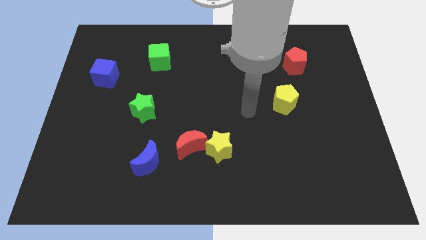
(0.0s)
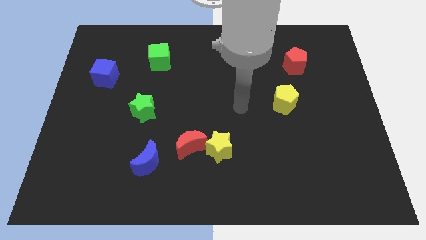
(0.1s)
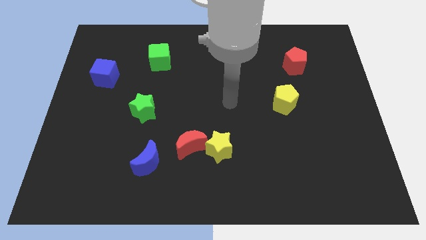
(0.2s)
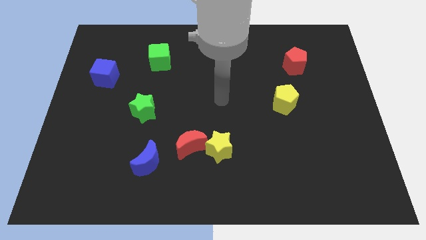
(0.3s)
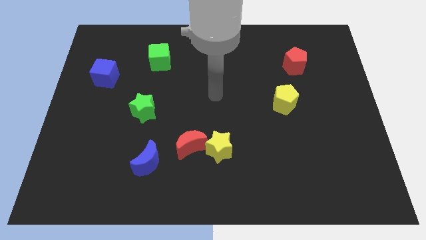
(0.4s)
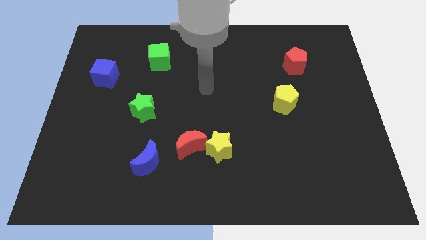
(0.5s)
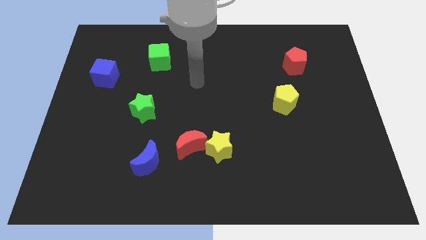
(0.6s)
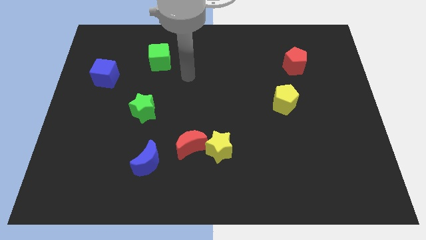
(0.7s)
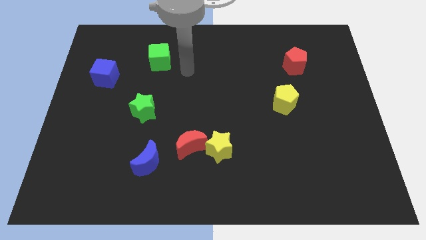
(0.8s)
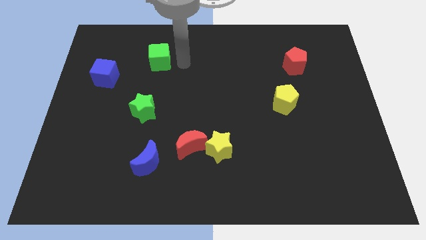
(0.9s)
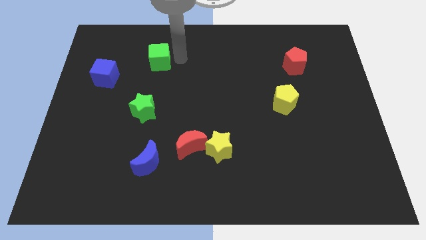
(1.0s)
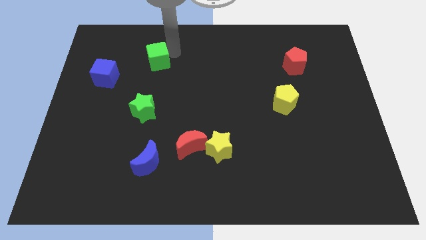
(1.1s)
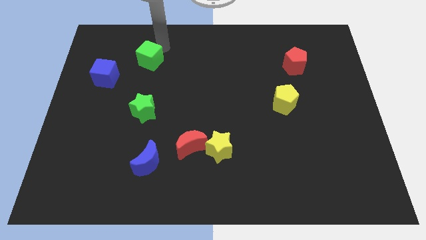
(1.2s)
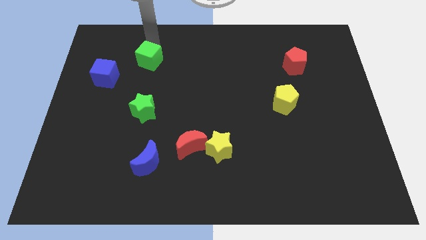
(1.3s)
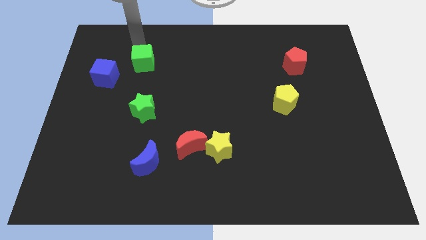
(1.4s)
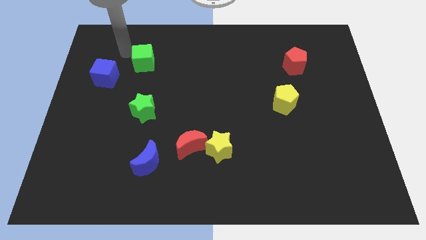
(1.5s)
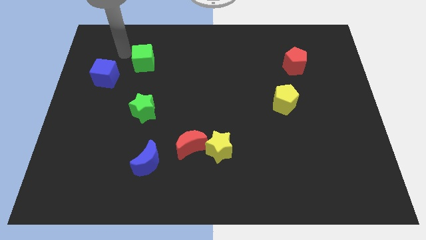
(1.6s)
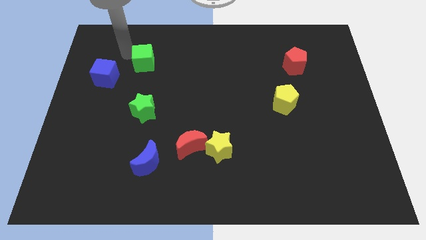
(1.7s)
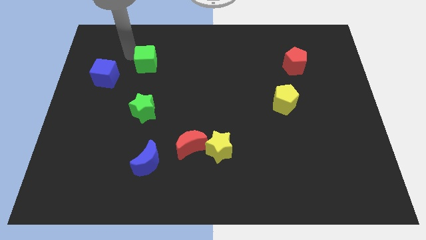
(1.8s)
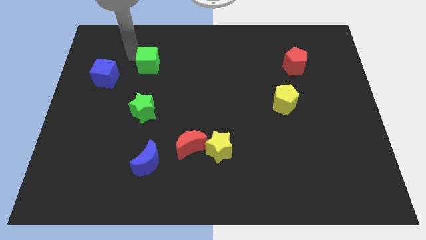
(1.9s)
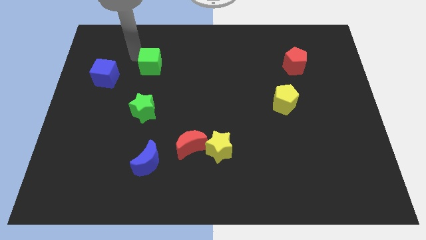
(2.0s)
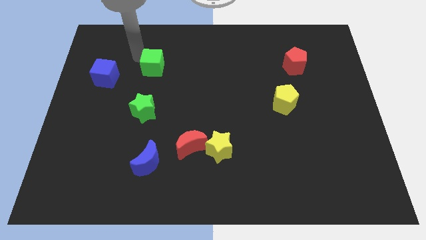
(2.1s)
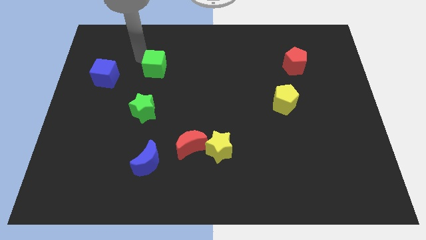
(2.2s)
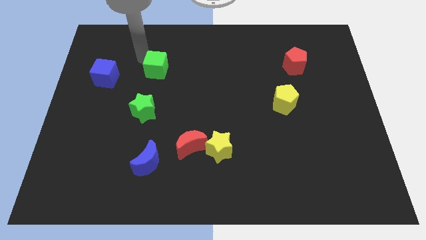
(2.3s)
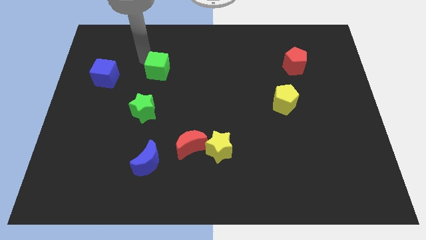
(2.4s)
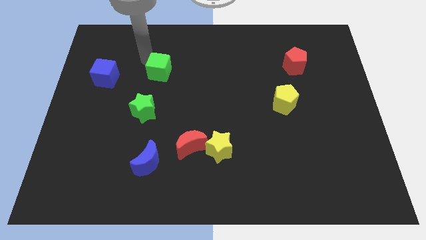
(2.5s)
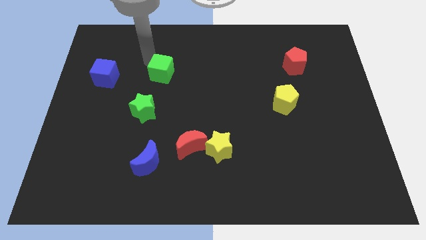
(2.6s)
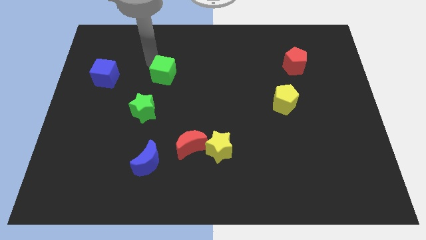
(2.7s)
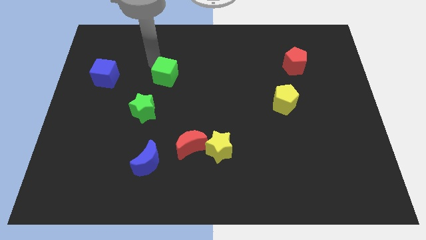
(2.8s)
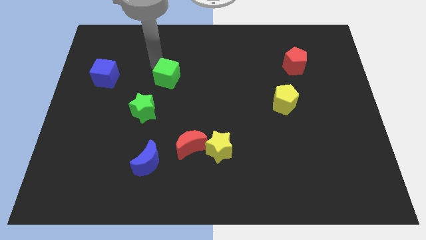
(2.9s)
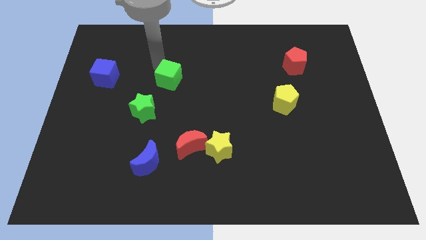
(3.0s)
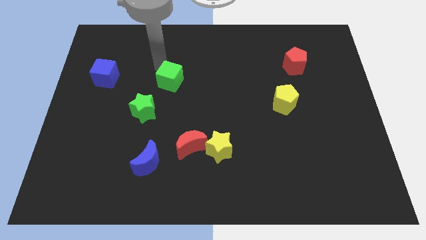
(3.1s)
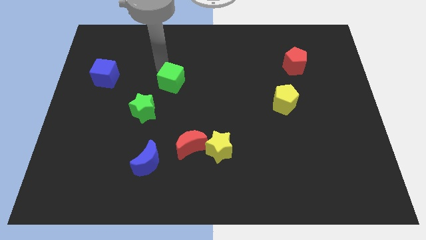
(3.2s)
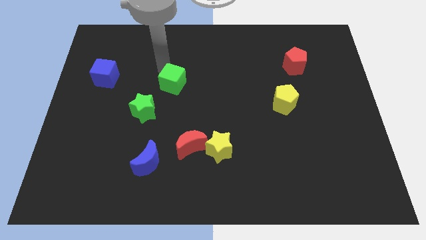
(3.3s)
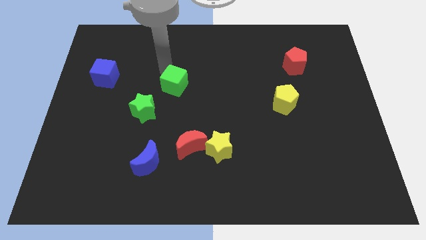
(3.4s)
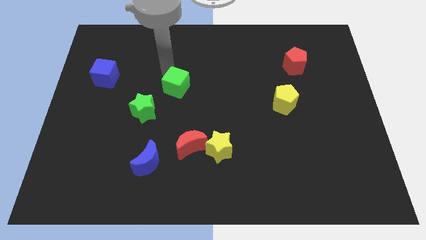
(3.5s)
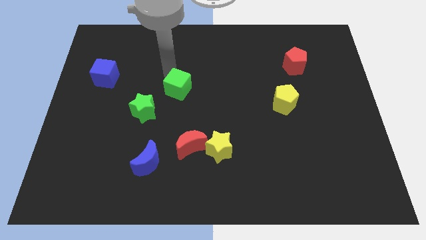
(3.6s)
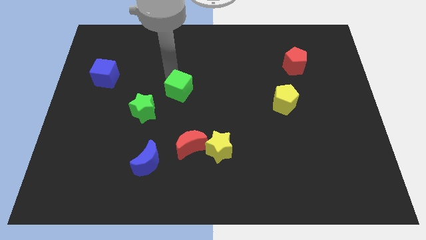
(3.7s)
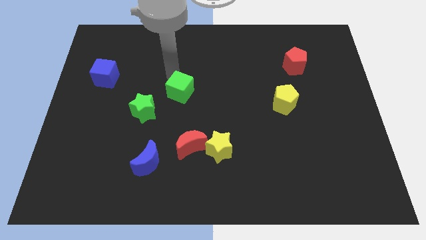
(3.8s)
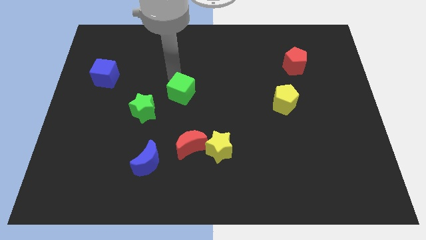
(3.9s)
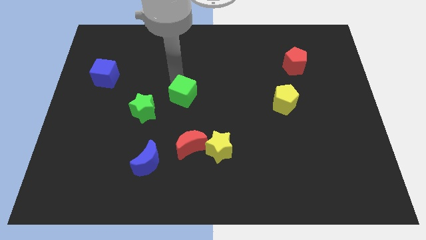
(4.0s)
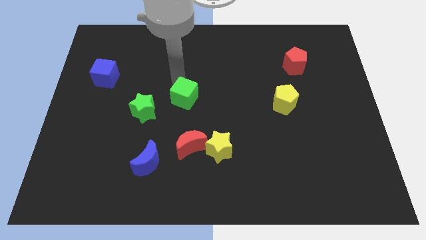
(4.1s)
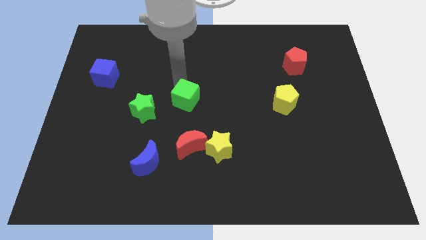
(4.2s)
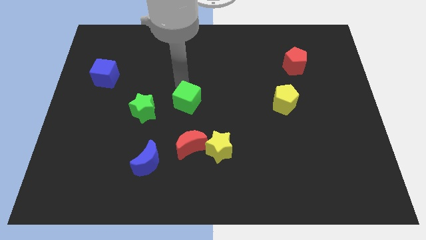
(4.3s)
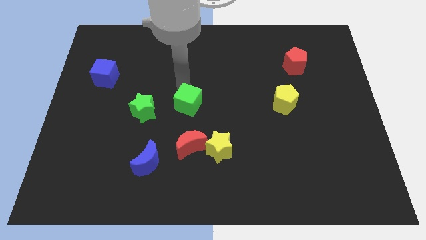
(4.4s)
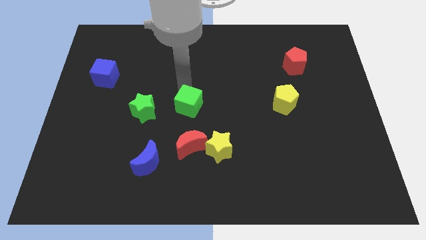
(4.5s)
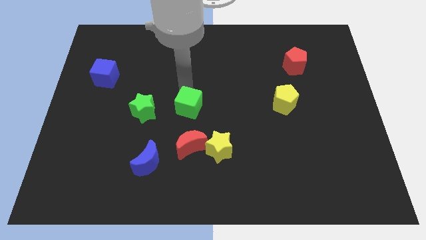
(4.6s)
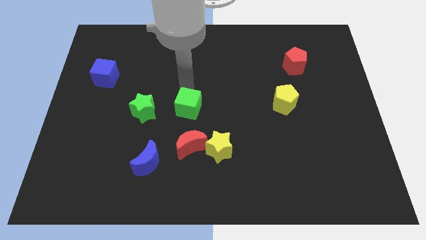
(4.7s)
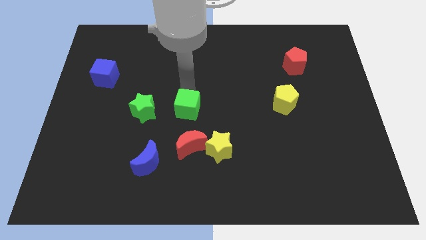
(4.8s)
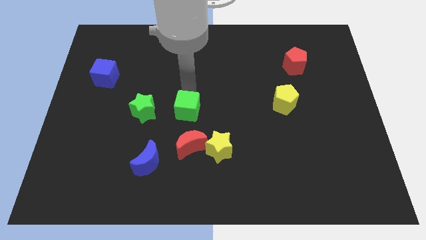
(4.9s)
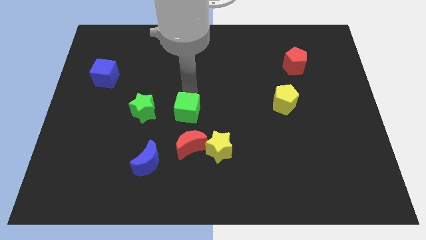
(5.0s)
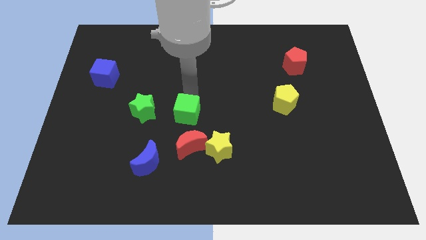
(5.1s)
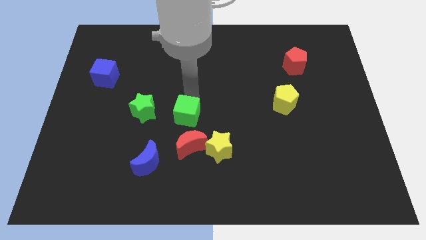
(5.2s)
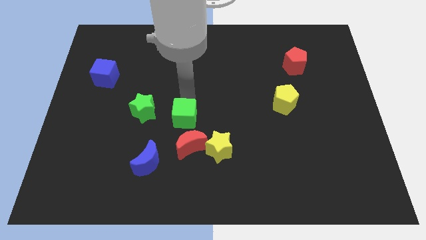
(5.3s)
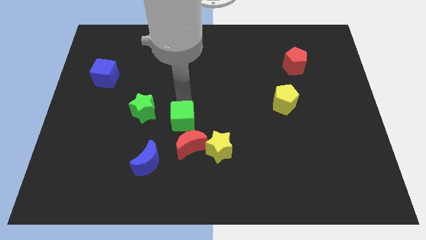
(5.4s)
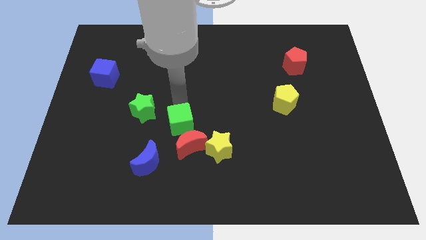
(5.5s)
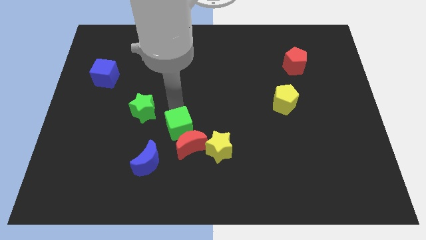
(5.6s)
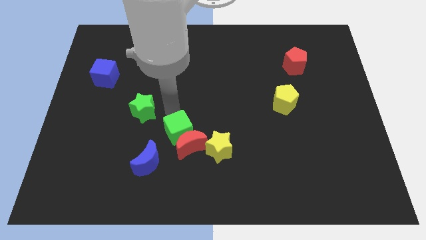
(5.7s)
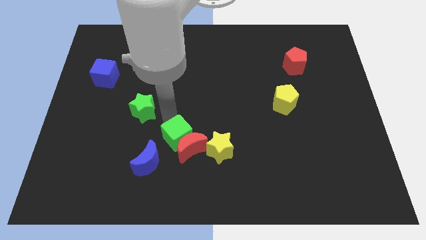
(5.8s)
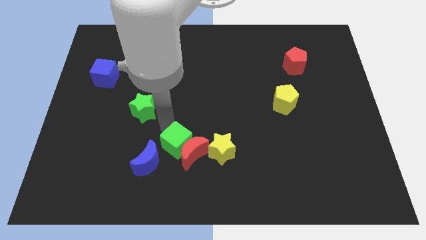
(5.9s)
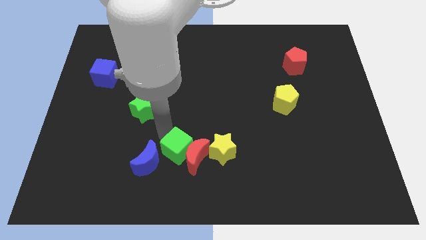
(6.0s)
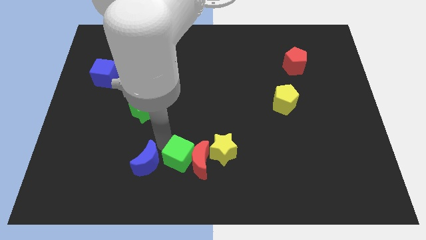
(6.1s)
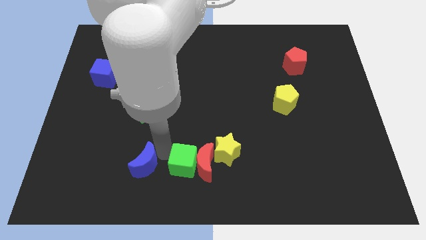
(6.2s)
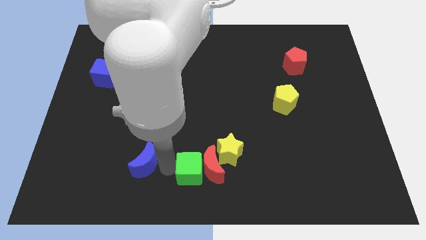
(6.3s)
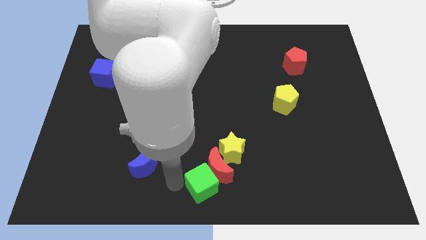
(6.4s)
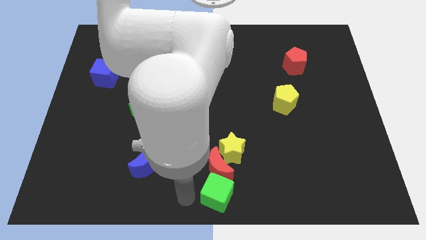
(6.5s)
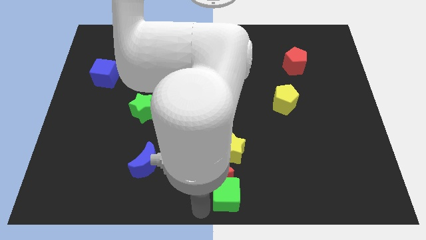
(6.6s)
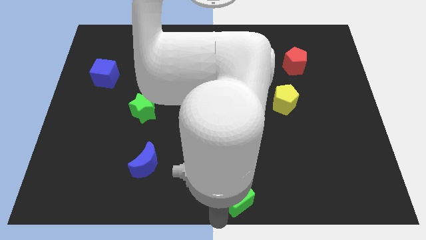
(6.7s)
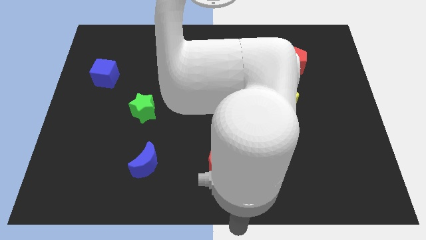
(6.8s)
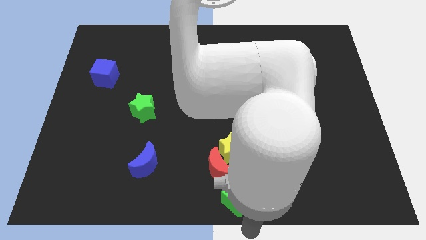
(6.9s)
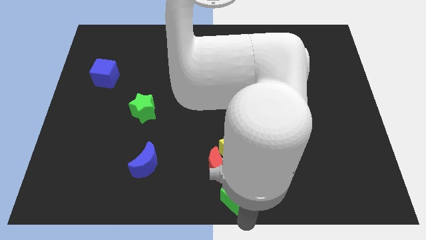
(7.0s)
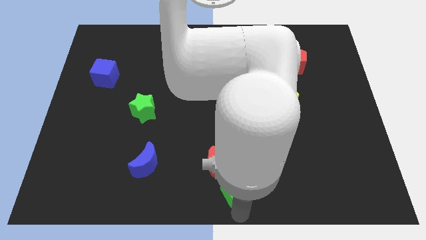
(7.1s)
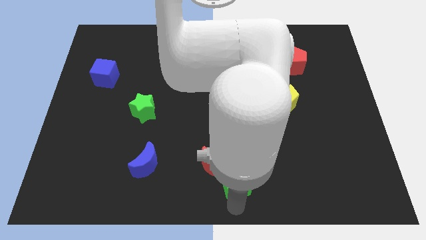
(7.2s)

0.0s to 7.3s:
slide the green cube down and right

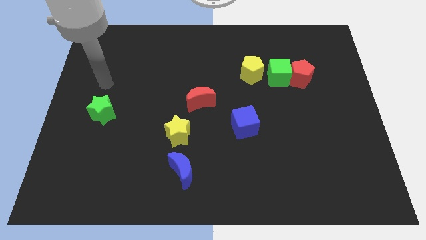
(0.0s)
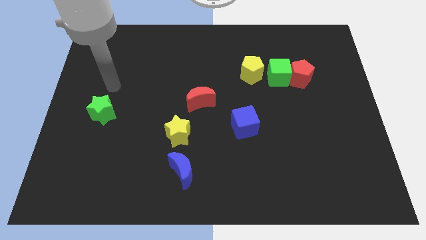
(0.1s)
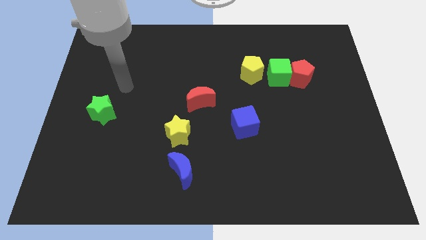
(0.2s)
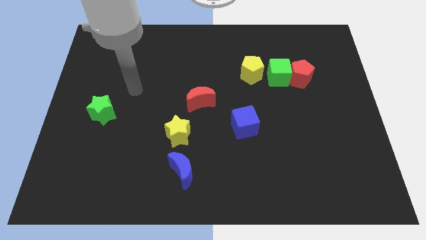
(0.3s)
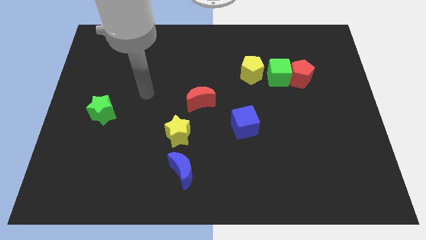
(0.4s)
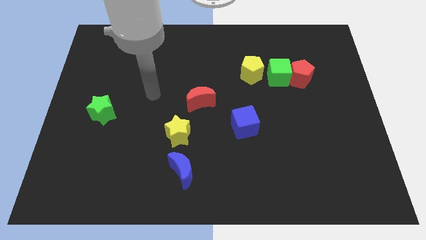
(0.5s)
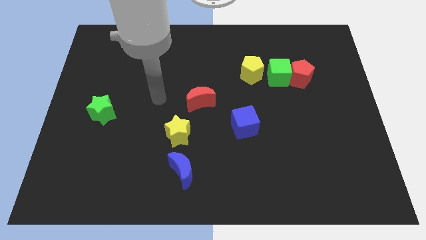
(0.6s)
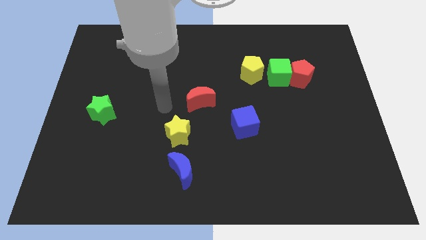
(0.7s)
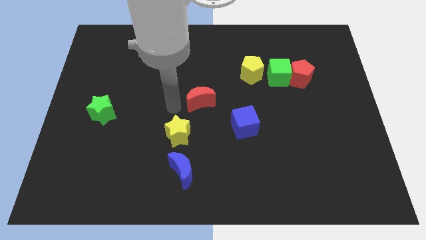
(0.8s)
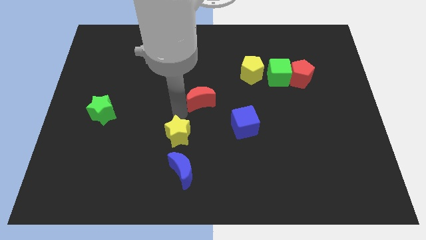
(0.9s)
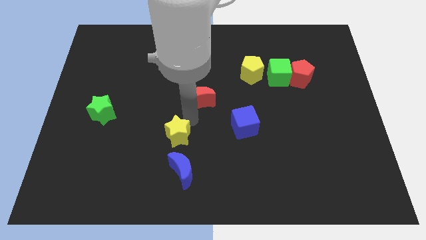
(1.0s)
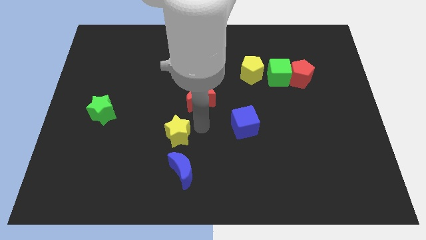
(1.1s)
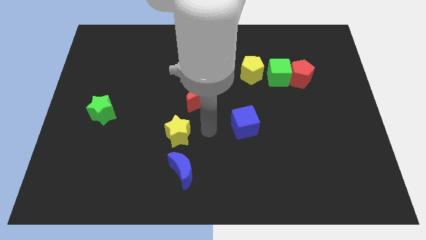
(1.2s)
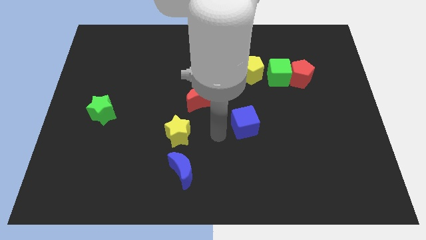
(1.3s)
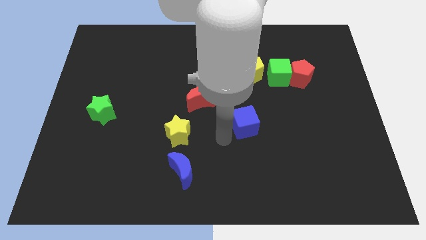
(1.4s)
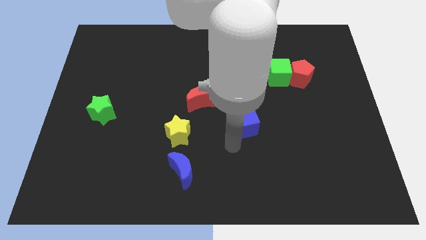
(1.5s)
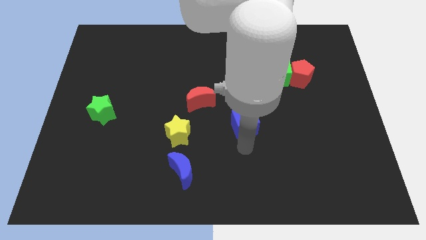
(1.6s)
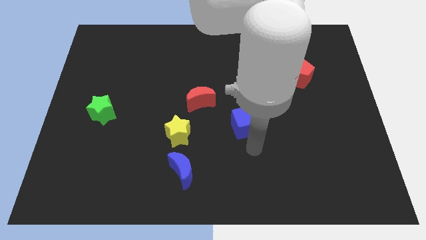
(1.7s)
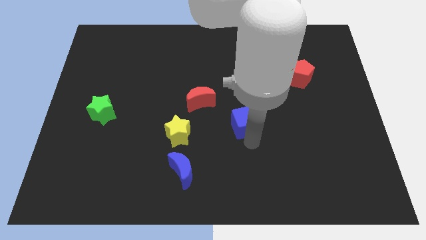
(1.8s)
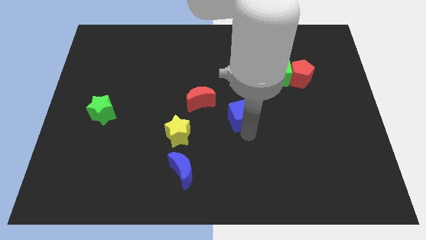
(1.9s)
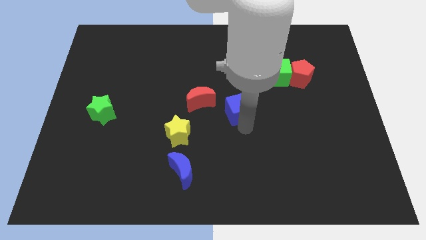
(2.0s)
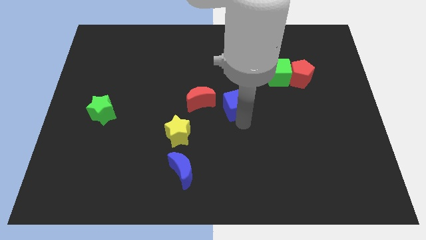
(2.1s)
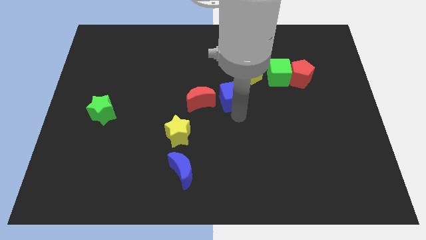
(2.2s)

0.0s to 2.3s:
move the blue cube a little up
